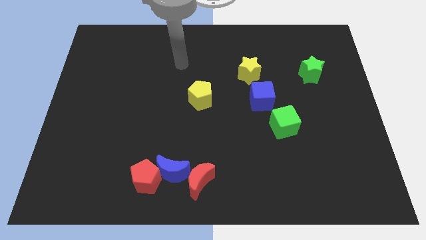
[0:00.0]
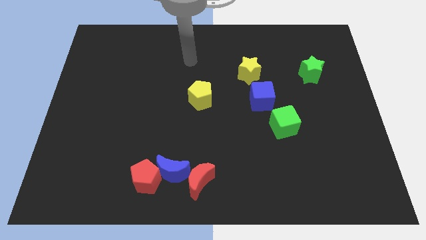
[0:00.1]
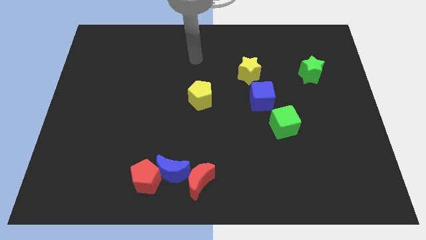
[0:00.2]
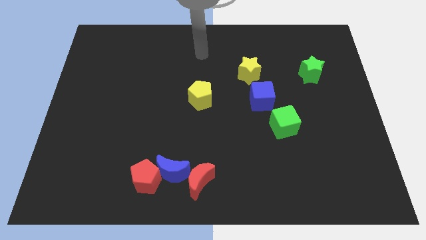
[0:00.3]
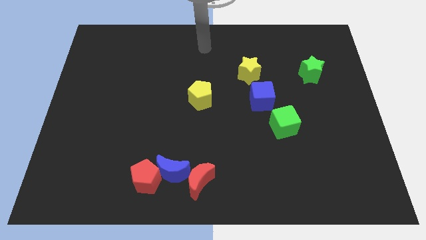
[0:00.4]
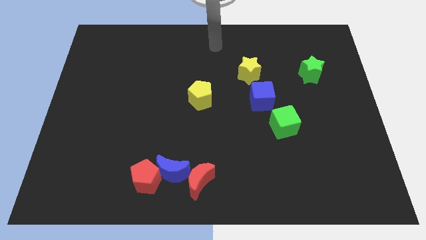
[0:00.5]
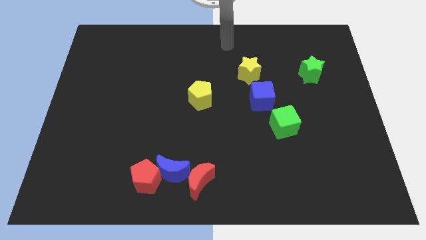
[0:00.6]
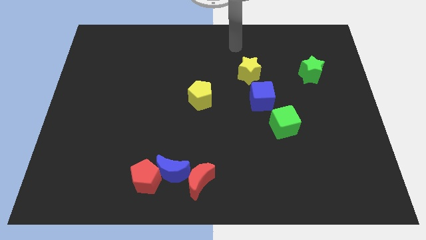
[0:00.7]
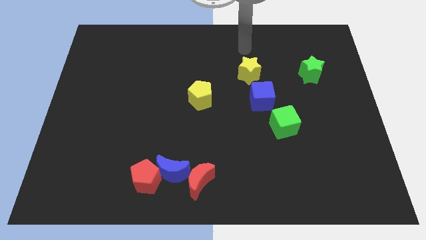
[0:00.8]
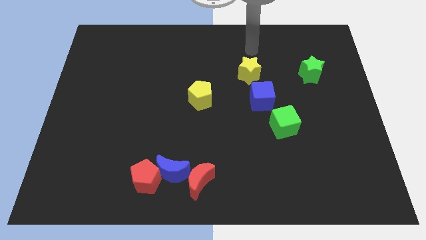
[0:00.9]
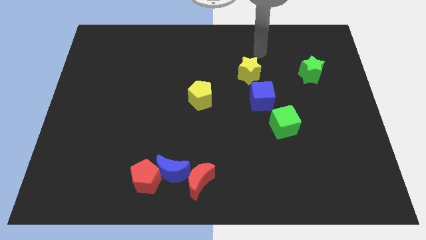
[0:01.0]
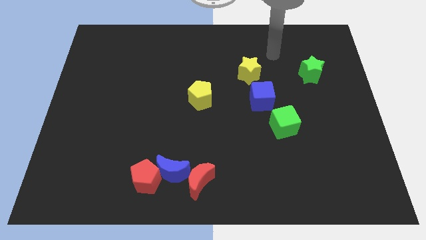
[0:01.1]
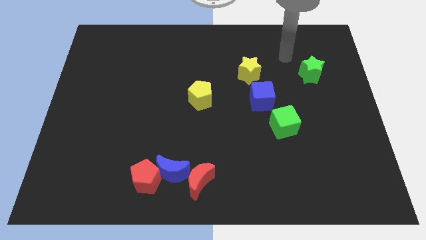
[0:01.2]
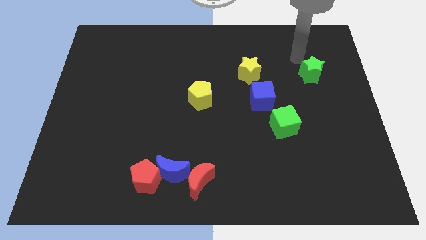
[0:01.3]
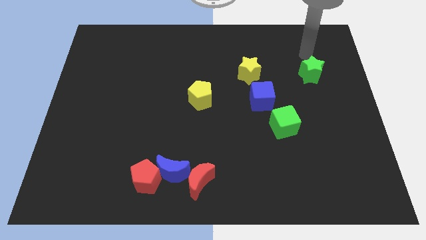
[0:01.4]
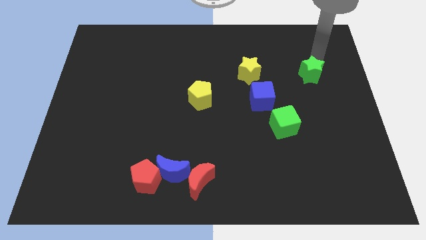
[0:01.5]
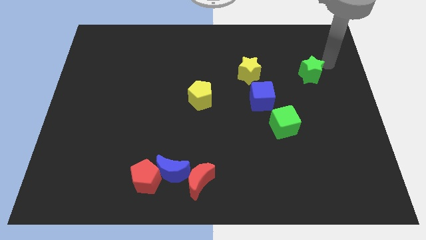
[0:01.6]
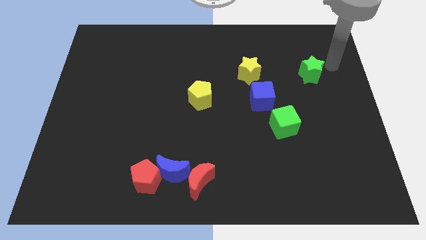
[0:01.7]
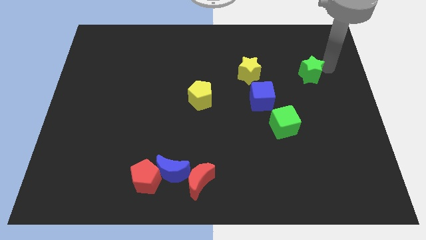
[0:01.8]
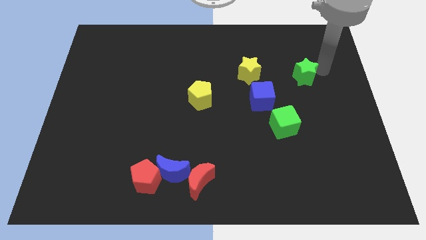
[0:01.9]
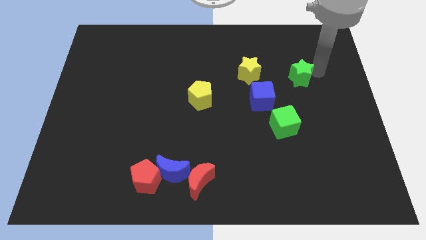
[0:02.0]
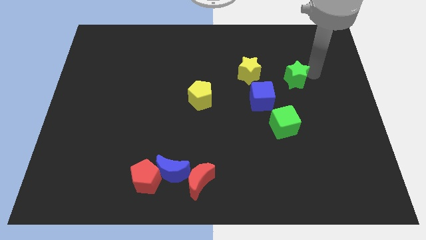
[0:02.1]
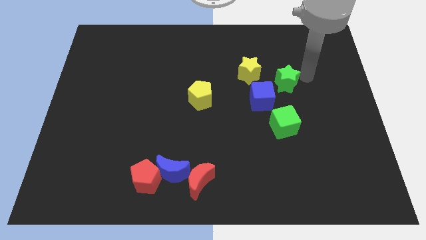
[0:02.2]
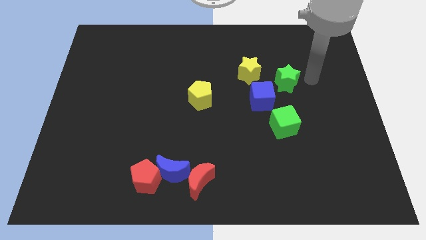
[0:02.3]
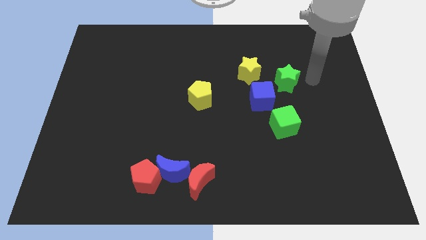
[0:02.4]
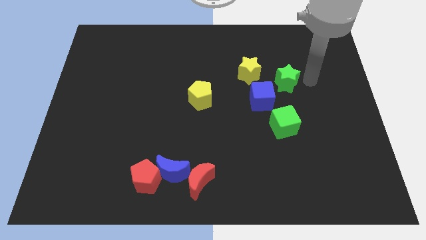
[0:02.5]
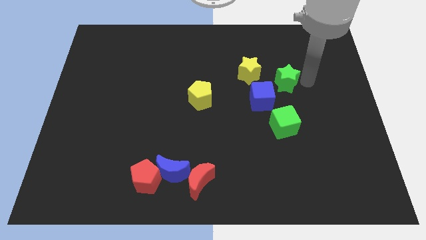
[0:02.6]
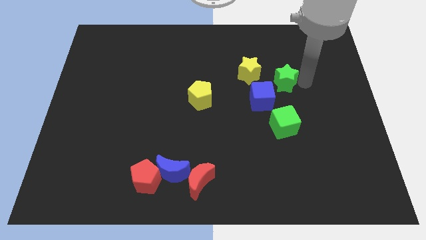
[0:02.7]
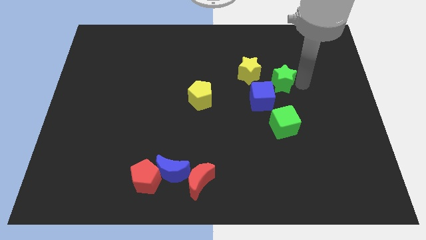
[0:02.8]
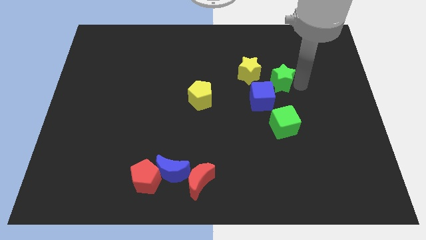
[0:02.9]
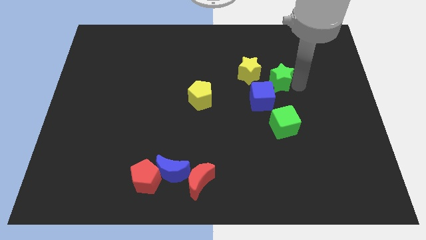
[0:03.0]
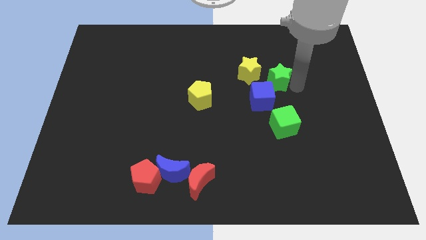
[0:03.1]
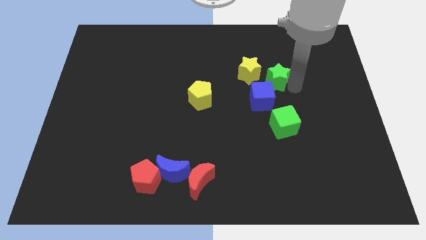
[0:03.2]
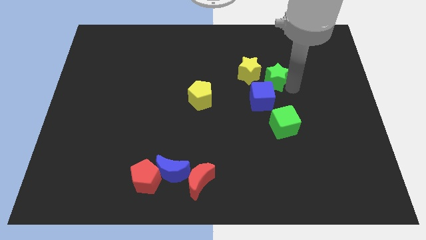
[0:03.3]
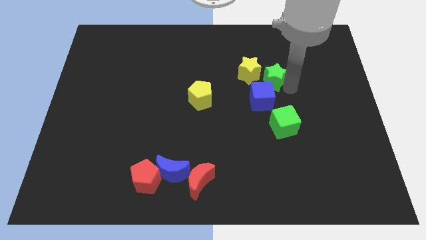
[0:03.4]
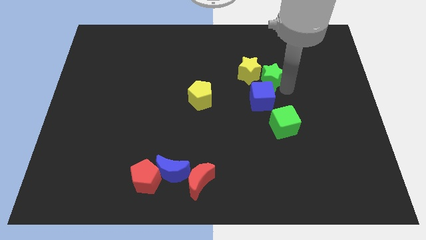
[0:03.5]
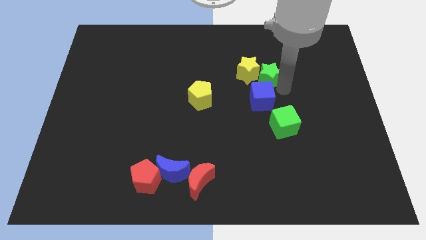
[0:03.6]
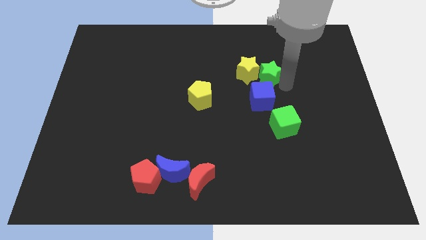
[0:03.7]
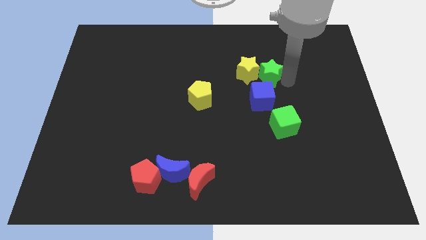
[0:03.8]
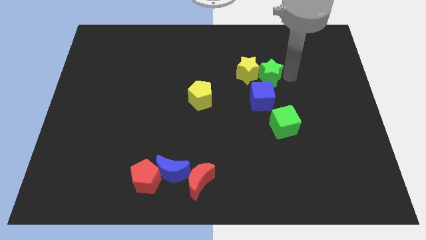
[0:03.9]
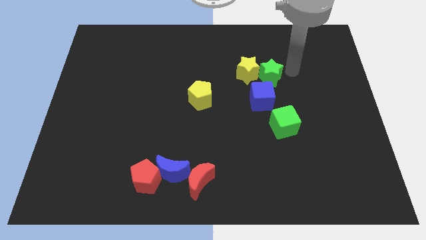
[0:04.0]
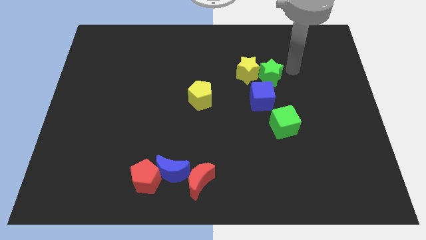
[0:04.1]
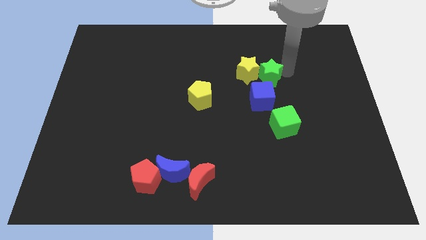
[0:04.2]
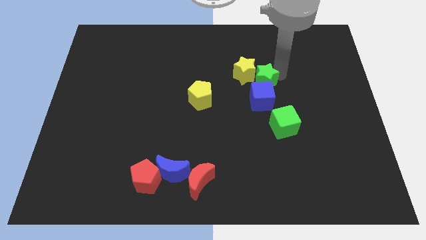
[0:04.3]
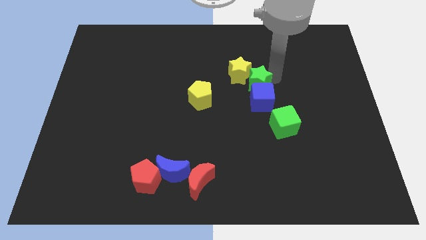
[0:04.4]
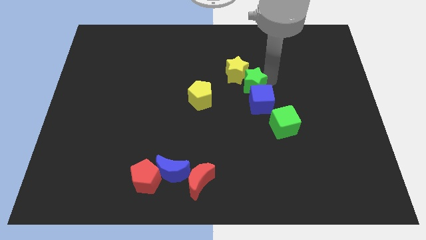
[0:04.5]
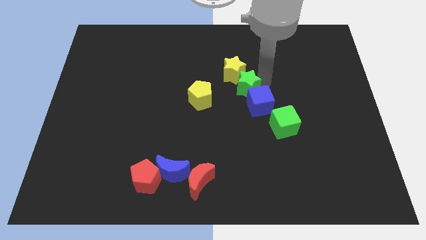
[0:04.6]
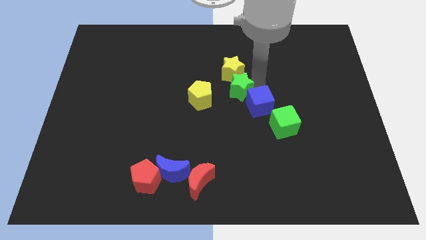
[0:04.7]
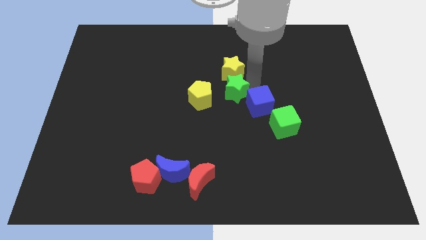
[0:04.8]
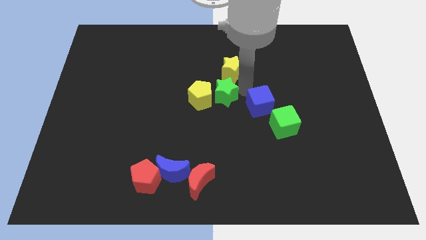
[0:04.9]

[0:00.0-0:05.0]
slide the green star close to the yellow pentagon

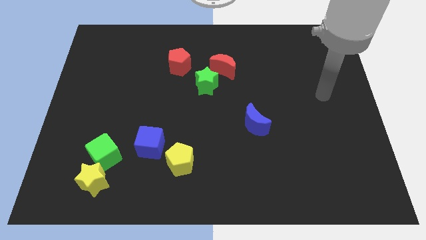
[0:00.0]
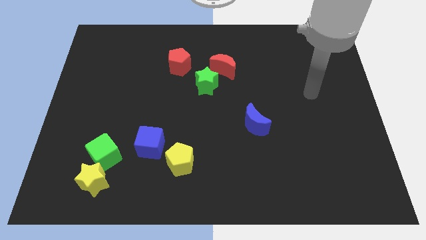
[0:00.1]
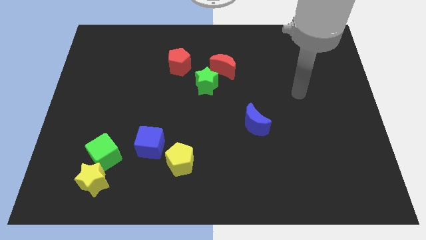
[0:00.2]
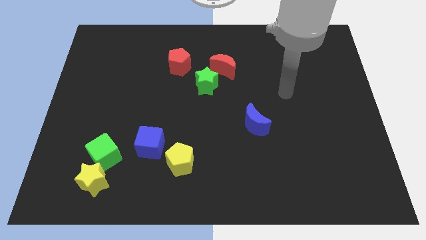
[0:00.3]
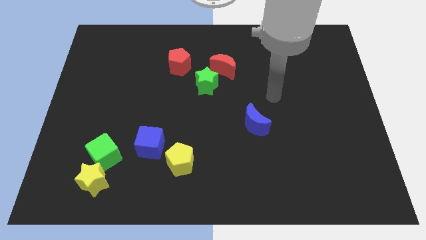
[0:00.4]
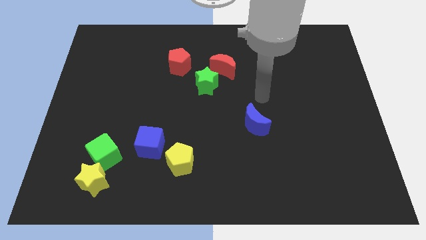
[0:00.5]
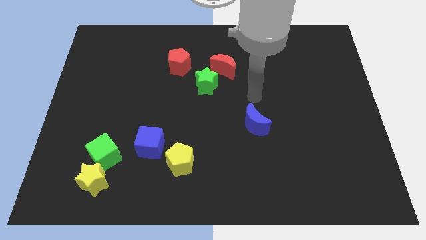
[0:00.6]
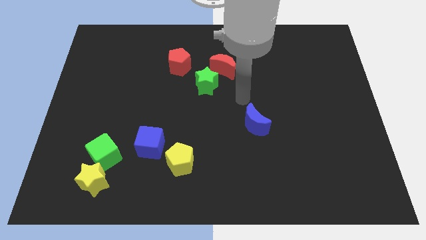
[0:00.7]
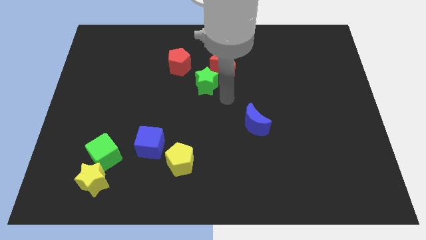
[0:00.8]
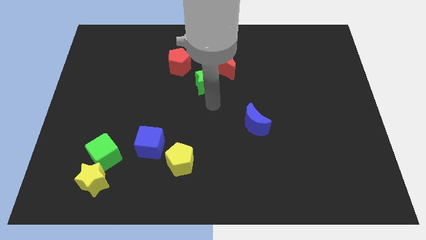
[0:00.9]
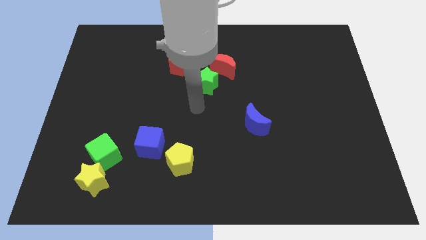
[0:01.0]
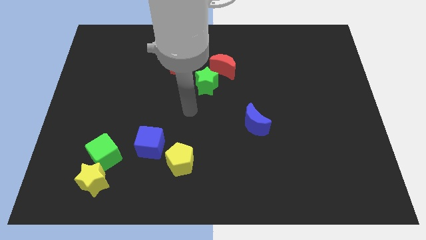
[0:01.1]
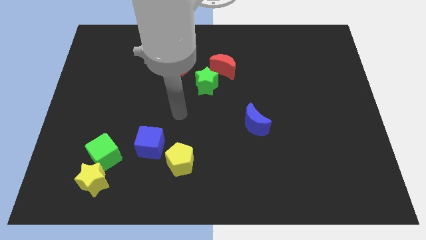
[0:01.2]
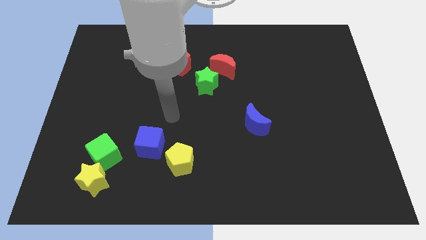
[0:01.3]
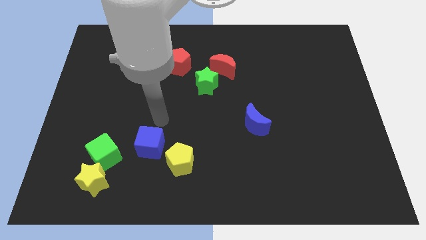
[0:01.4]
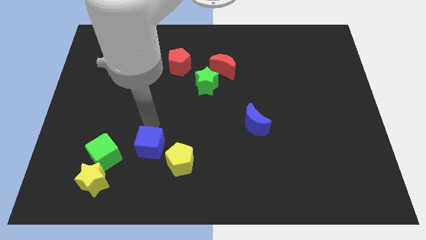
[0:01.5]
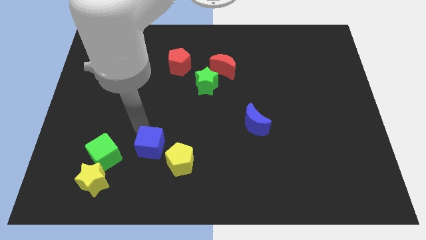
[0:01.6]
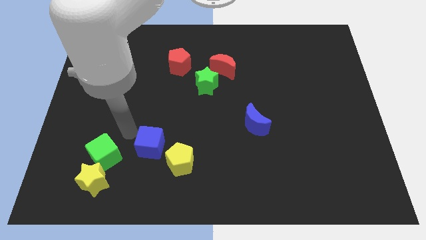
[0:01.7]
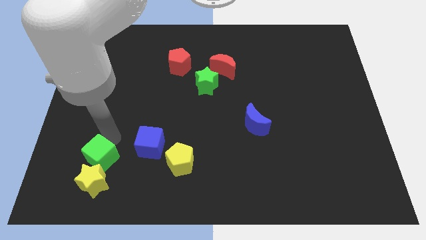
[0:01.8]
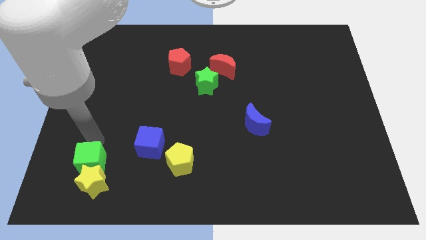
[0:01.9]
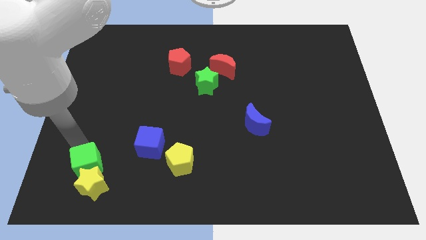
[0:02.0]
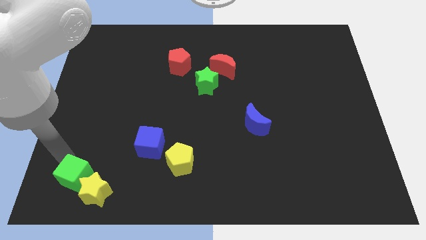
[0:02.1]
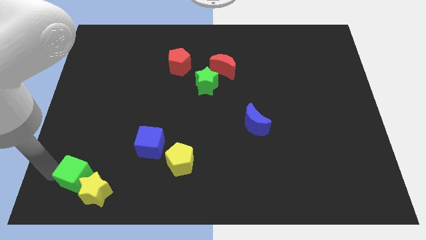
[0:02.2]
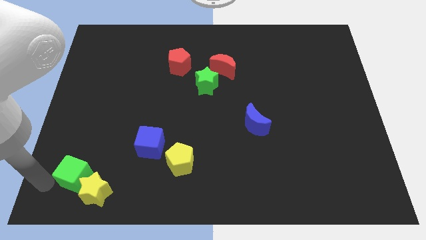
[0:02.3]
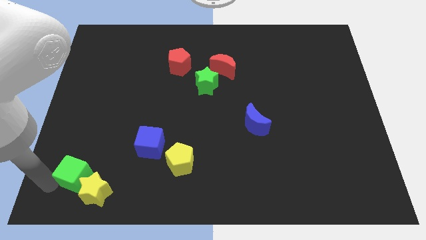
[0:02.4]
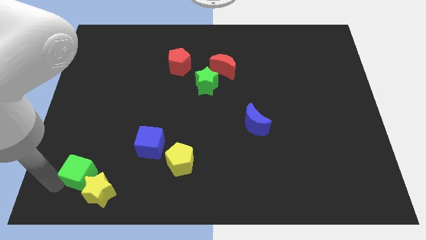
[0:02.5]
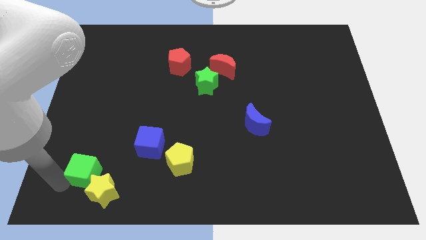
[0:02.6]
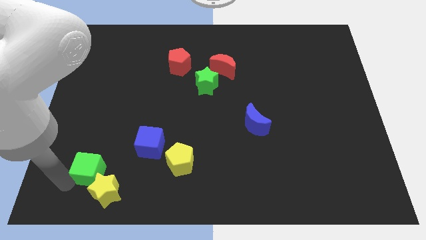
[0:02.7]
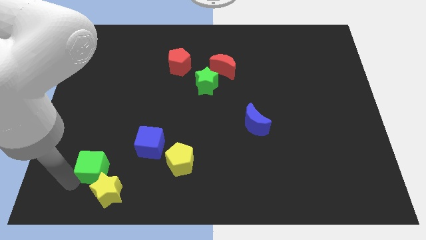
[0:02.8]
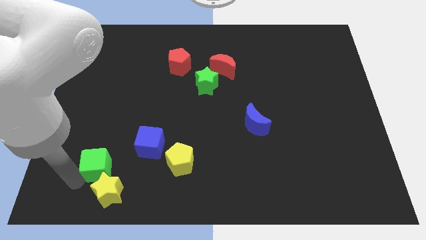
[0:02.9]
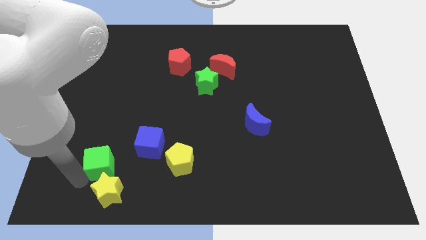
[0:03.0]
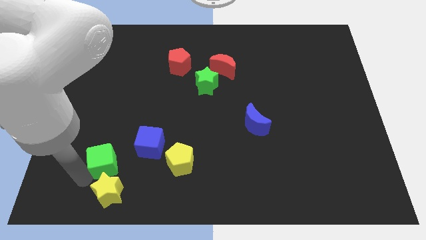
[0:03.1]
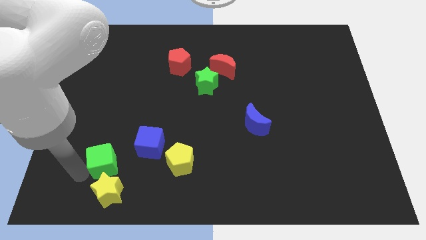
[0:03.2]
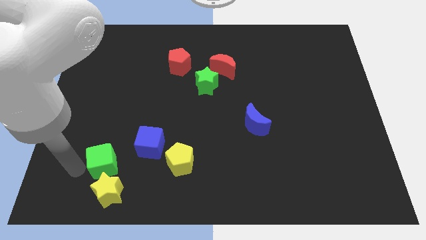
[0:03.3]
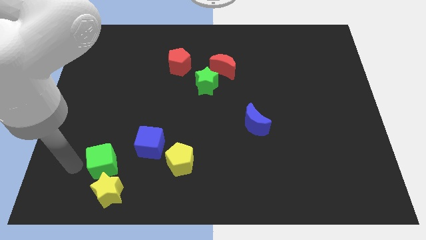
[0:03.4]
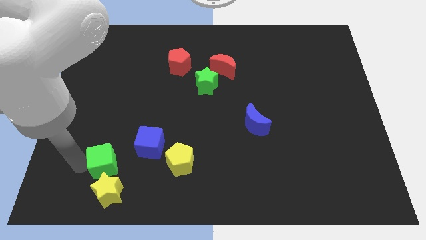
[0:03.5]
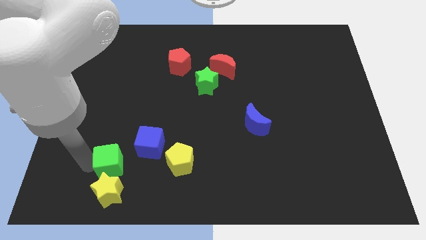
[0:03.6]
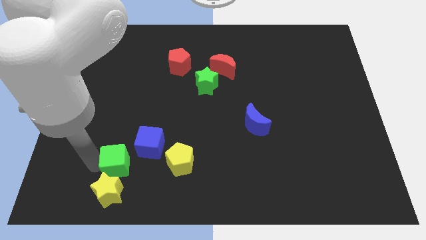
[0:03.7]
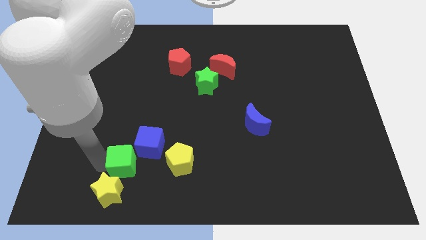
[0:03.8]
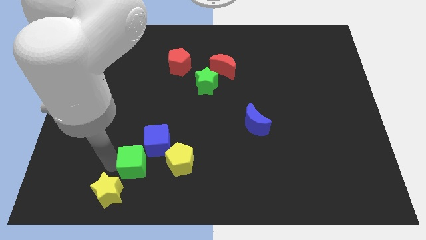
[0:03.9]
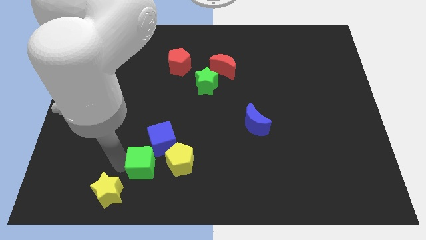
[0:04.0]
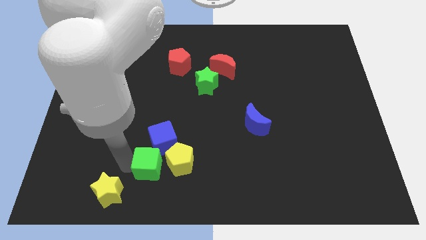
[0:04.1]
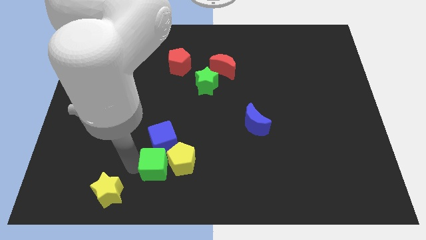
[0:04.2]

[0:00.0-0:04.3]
push the green cube close to the yellow pentagon
